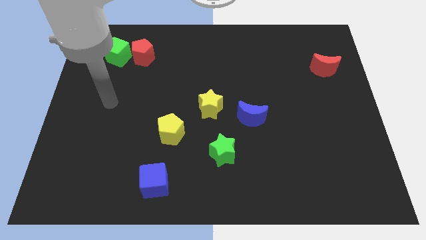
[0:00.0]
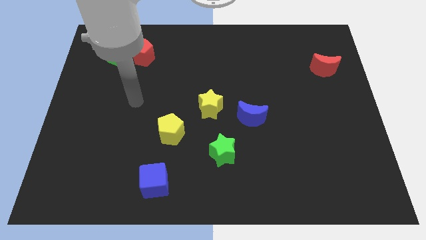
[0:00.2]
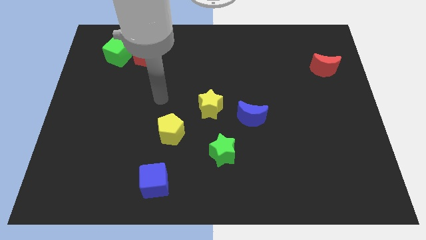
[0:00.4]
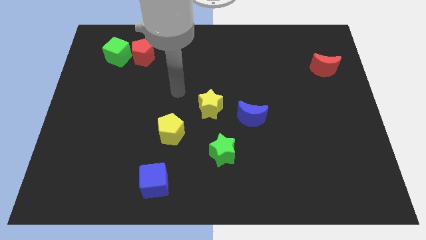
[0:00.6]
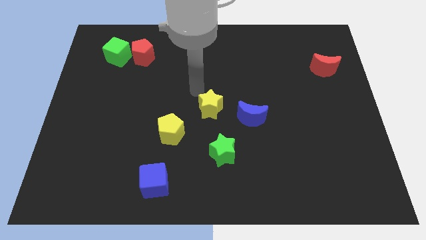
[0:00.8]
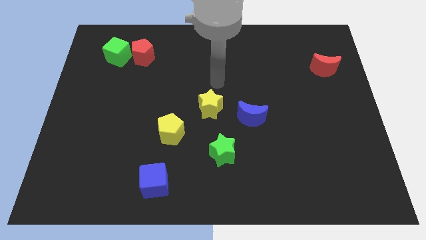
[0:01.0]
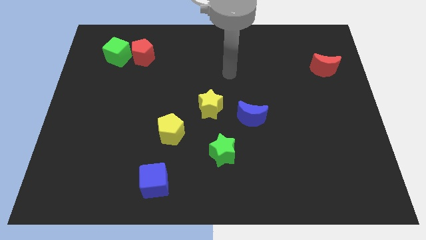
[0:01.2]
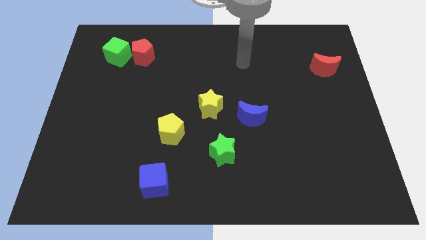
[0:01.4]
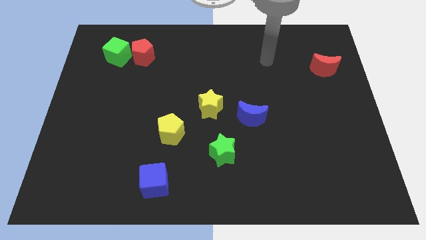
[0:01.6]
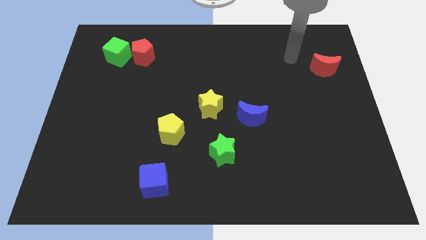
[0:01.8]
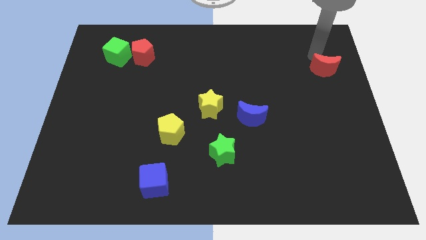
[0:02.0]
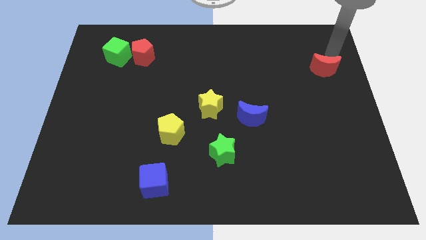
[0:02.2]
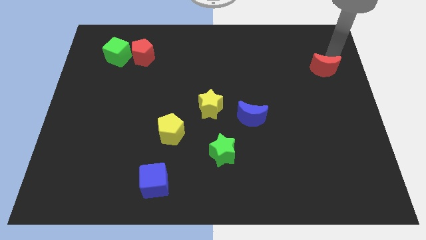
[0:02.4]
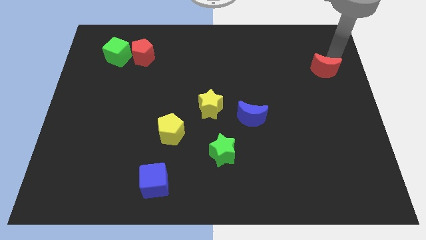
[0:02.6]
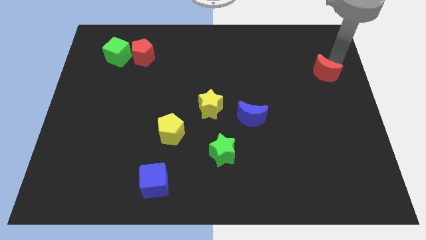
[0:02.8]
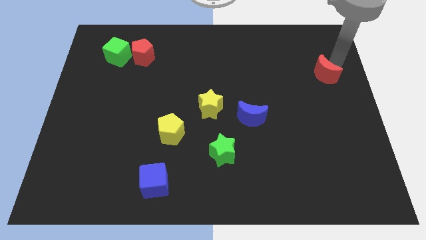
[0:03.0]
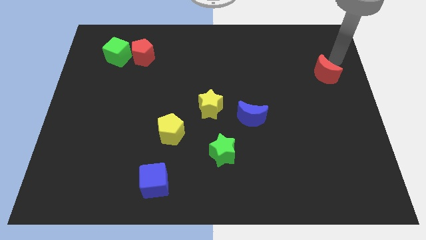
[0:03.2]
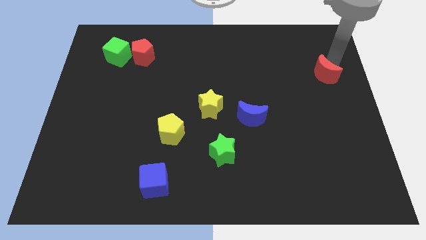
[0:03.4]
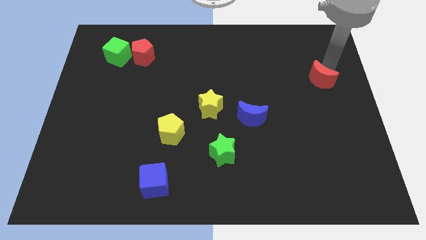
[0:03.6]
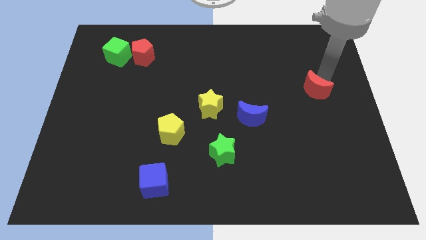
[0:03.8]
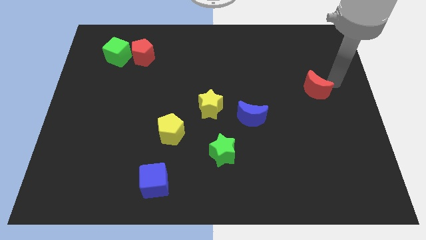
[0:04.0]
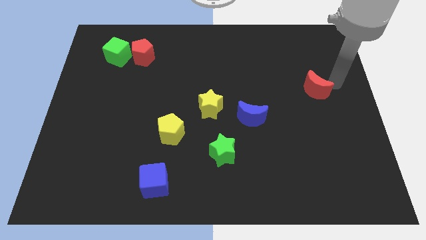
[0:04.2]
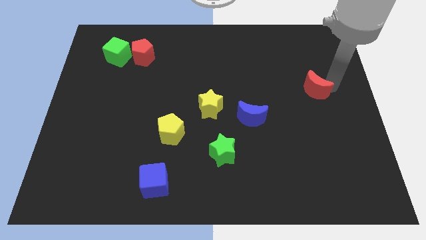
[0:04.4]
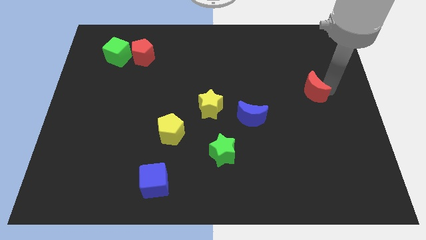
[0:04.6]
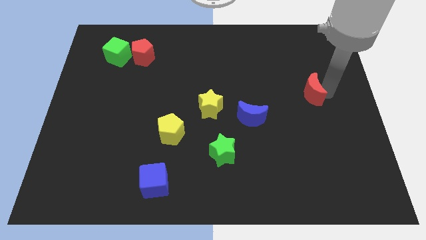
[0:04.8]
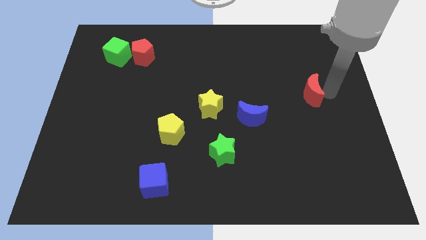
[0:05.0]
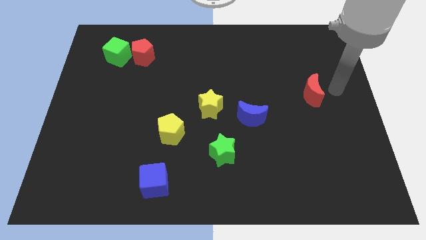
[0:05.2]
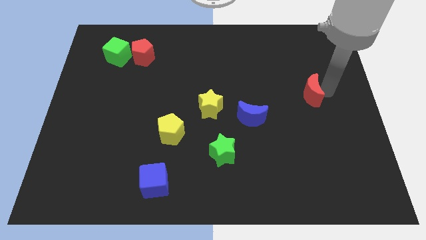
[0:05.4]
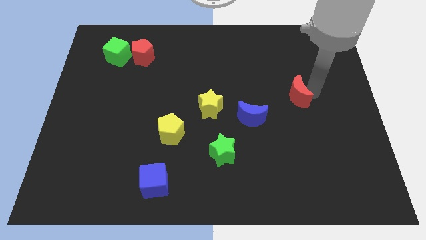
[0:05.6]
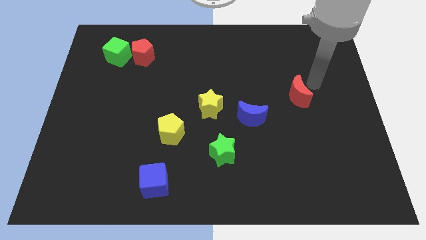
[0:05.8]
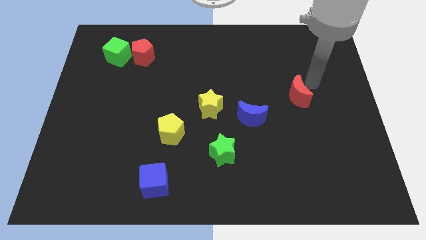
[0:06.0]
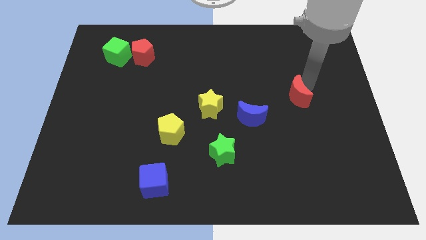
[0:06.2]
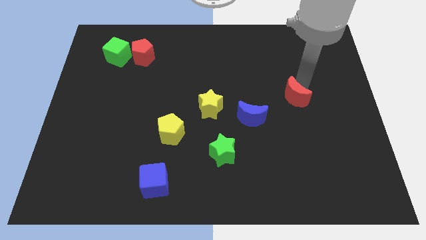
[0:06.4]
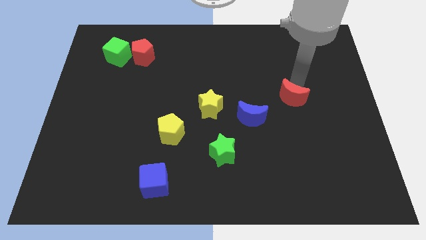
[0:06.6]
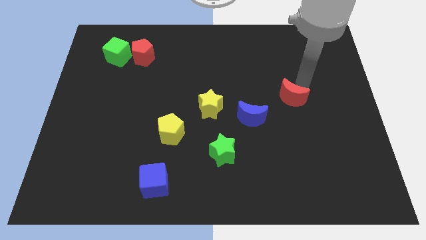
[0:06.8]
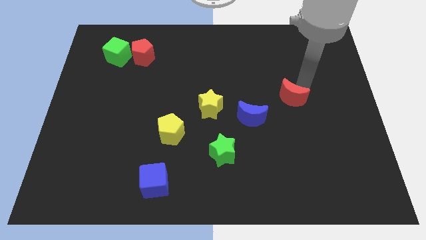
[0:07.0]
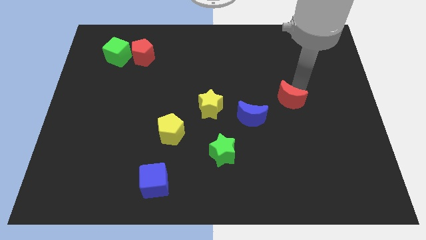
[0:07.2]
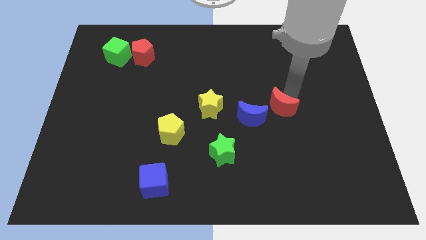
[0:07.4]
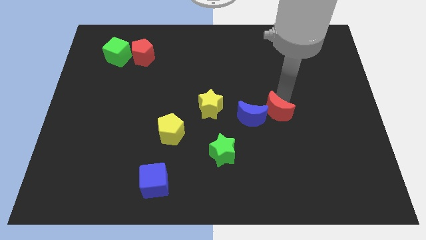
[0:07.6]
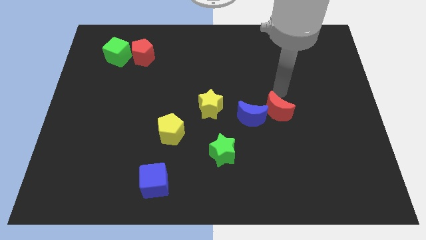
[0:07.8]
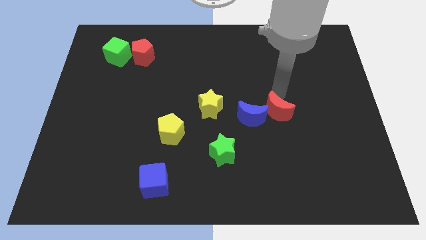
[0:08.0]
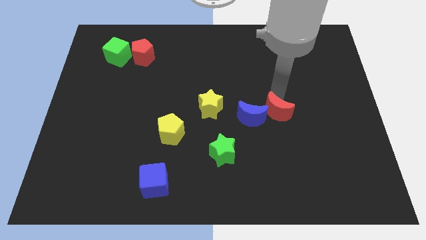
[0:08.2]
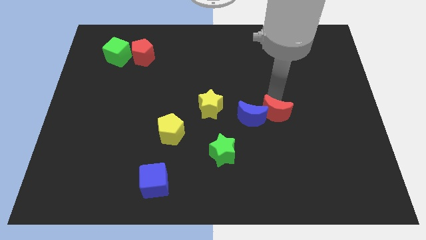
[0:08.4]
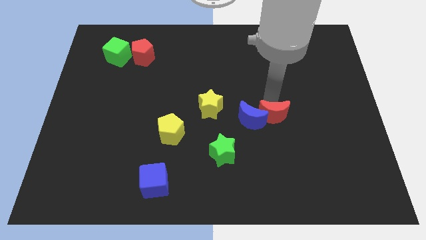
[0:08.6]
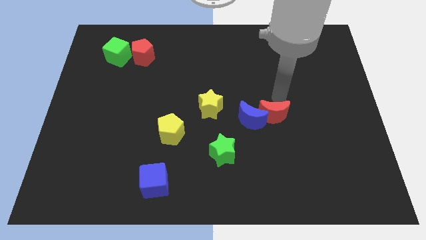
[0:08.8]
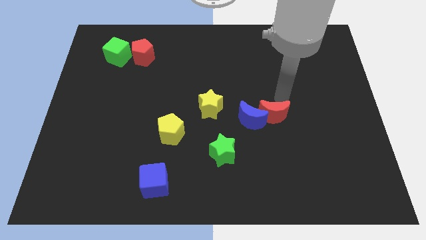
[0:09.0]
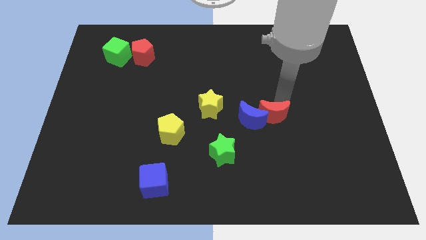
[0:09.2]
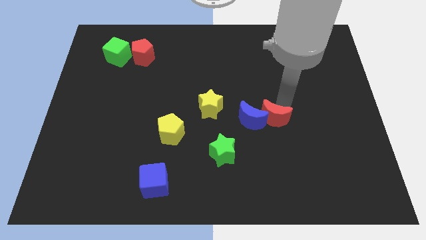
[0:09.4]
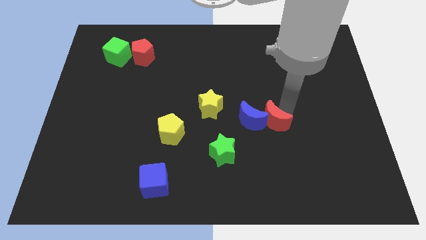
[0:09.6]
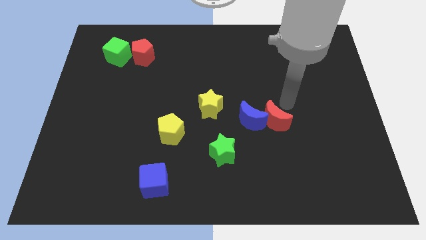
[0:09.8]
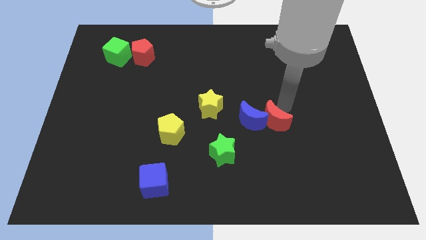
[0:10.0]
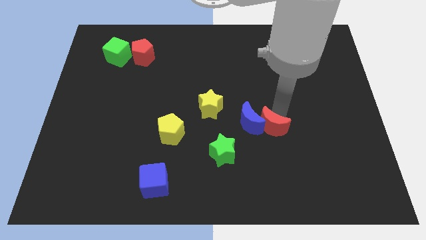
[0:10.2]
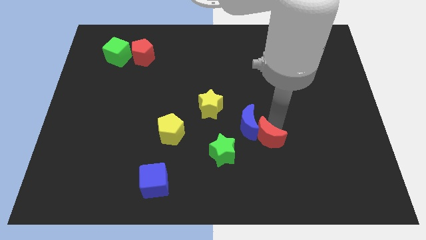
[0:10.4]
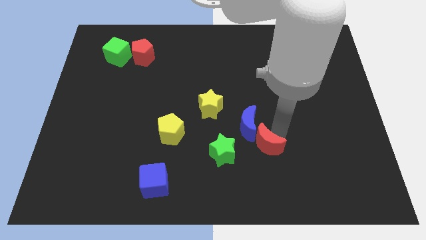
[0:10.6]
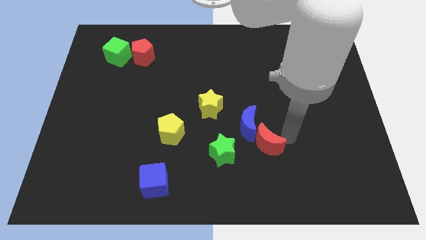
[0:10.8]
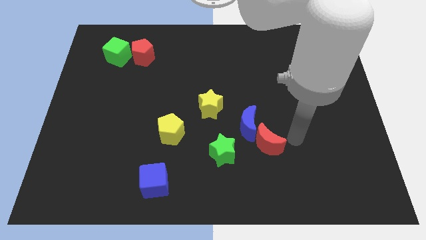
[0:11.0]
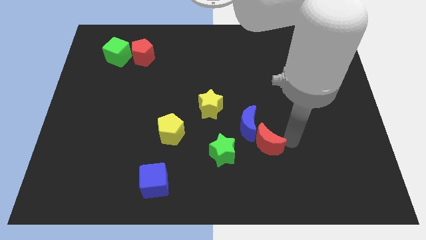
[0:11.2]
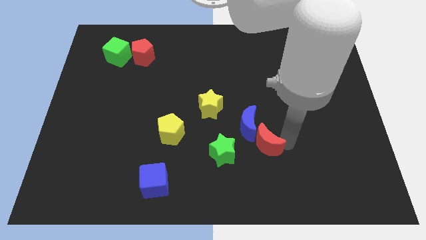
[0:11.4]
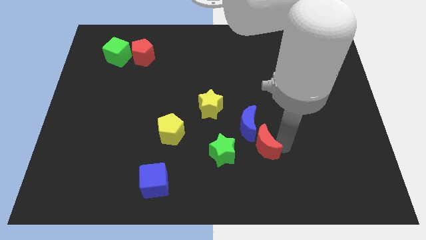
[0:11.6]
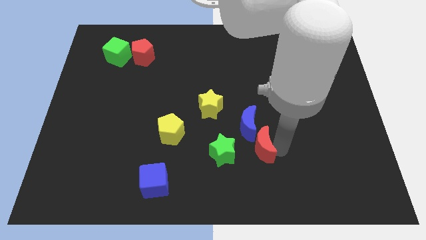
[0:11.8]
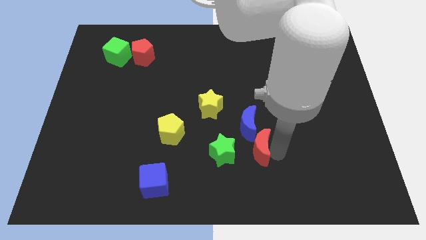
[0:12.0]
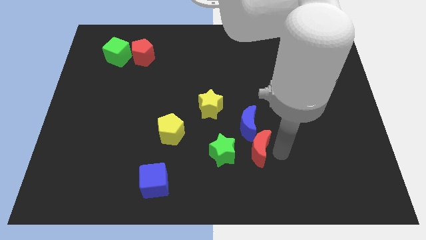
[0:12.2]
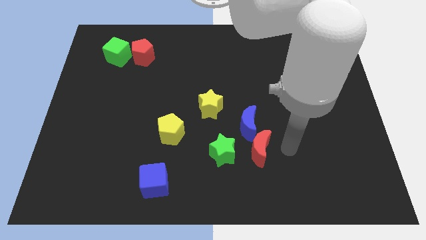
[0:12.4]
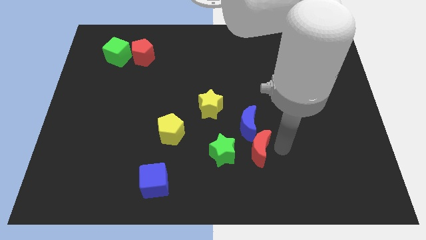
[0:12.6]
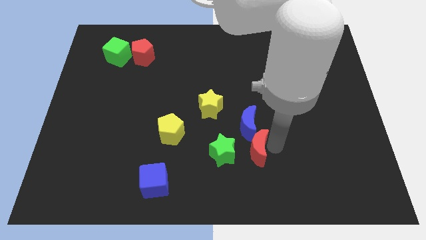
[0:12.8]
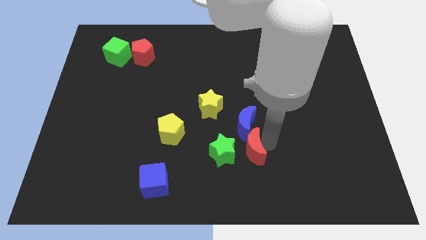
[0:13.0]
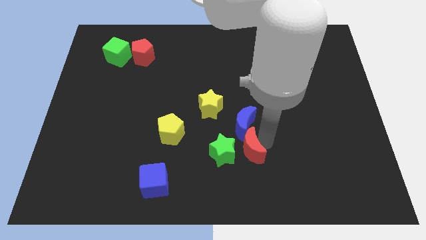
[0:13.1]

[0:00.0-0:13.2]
slide the red moon towards the green star

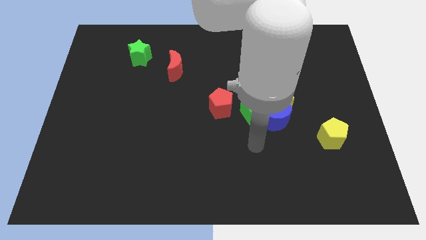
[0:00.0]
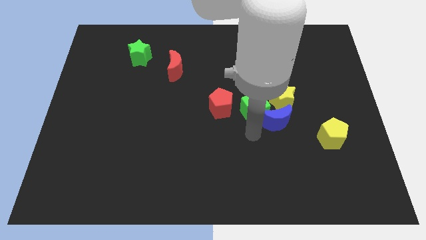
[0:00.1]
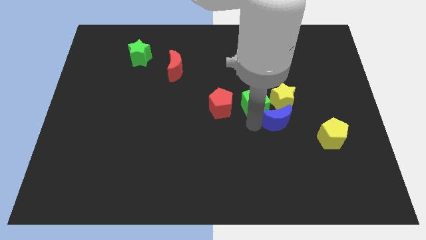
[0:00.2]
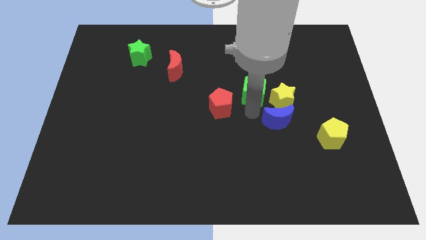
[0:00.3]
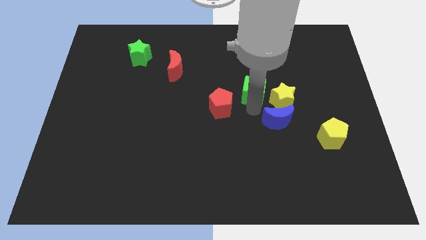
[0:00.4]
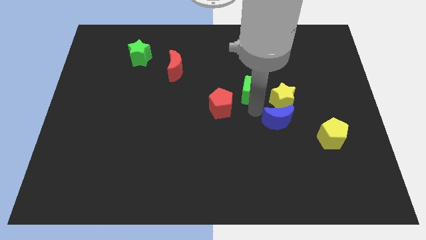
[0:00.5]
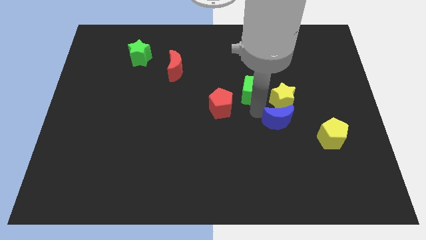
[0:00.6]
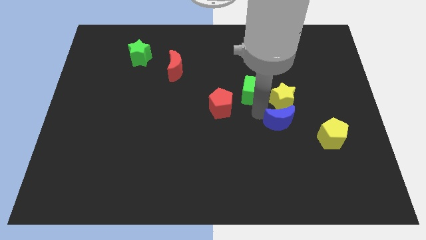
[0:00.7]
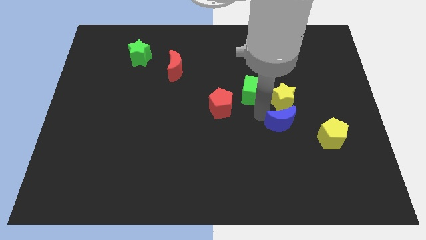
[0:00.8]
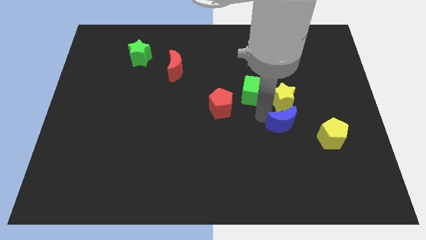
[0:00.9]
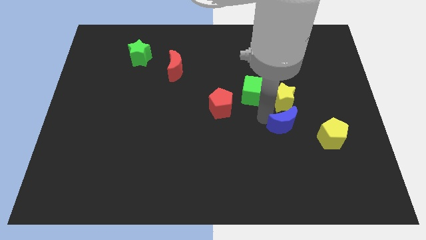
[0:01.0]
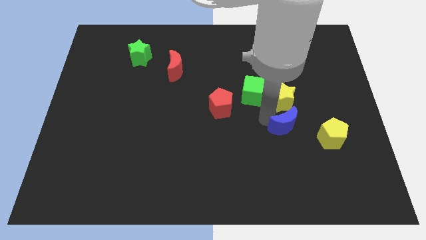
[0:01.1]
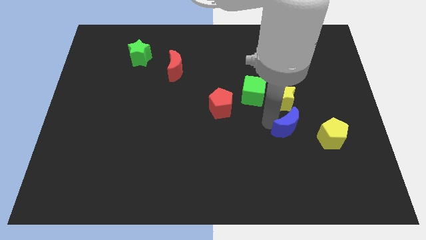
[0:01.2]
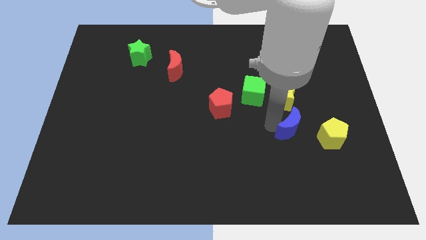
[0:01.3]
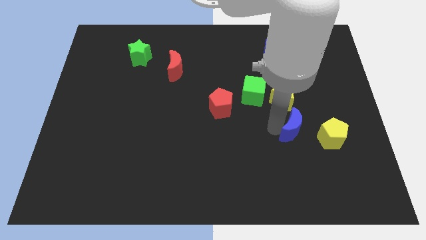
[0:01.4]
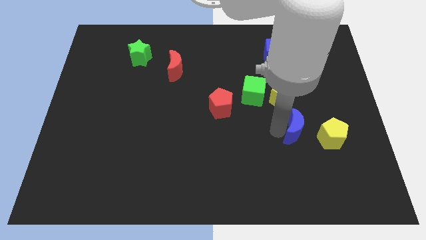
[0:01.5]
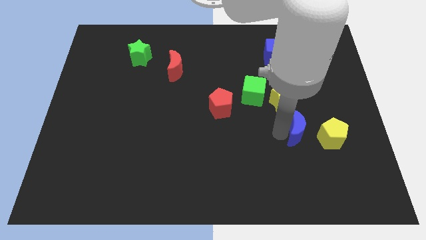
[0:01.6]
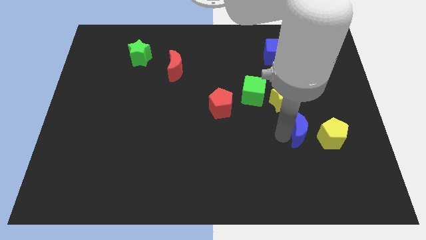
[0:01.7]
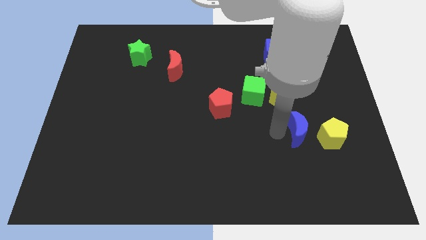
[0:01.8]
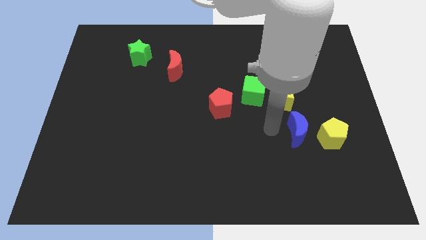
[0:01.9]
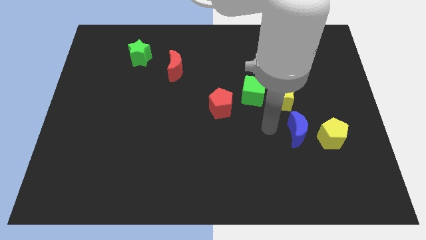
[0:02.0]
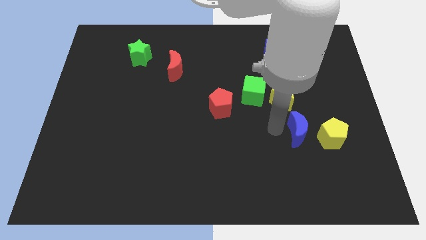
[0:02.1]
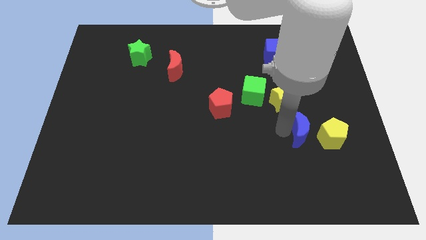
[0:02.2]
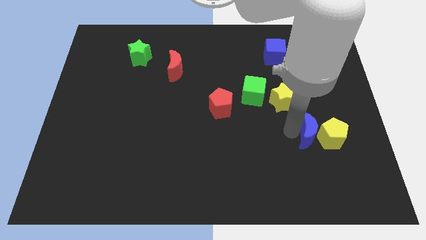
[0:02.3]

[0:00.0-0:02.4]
push the blue moon to the yellow pentagon
